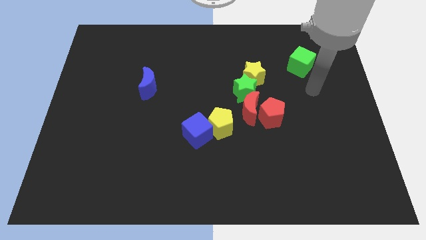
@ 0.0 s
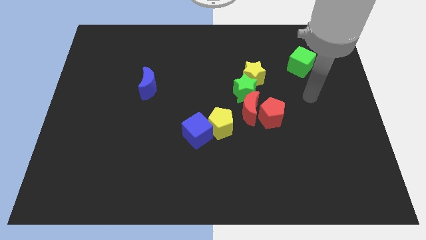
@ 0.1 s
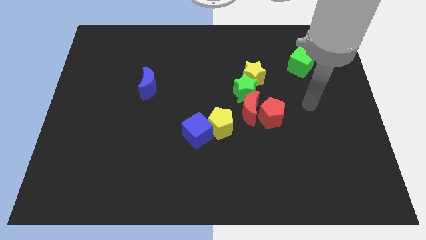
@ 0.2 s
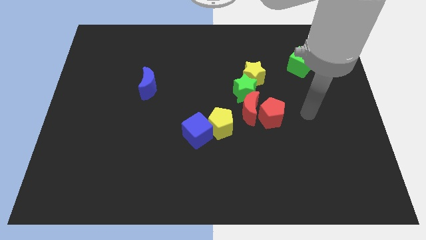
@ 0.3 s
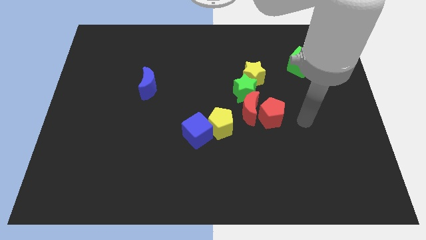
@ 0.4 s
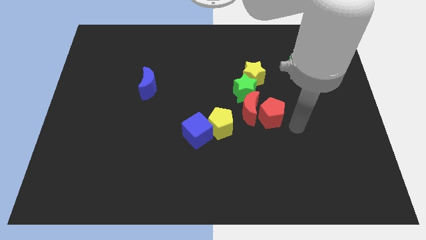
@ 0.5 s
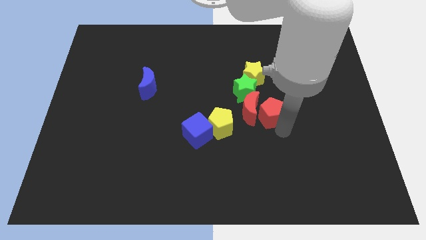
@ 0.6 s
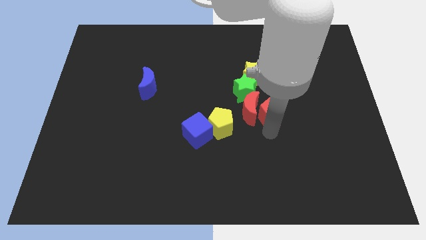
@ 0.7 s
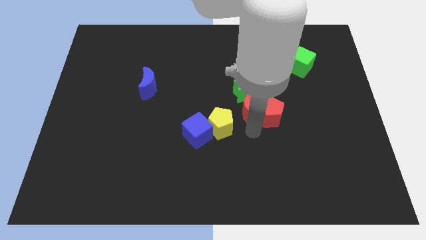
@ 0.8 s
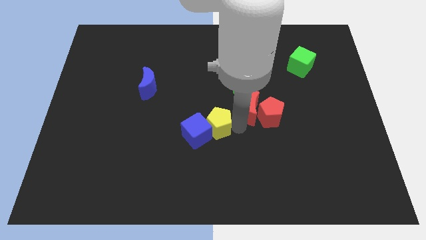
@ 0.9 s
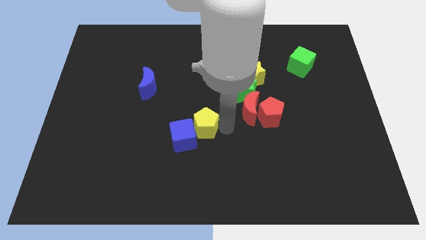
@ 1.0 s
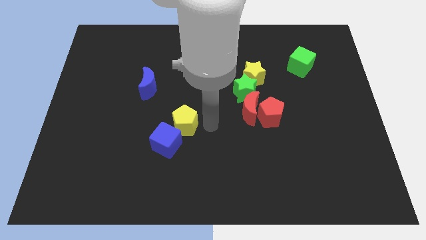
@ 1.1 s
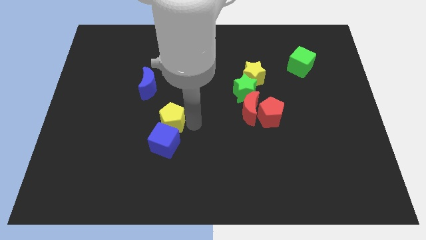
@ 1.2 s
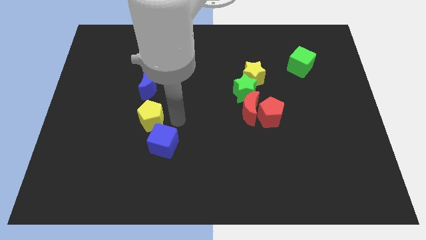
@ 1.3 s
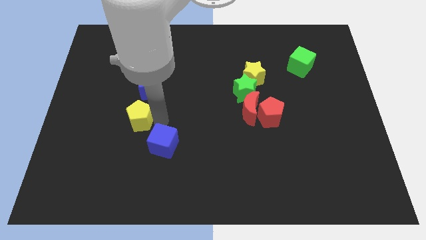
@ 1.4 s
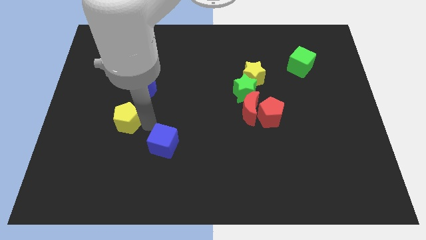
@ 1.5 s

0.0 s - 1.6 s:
separate the blue cube from the yellow pentagon

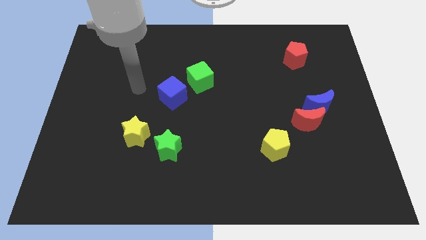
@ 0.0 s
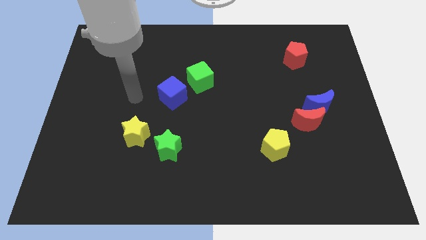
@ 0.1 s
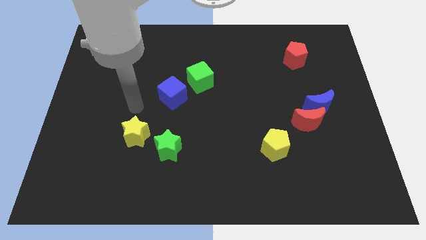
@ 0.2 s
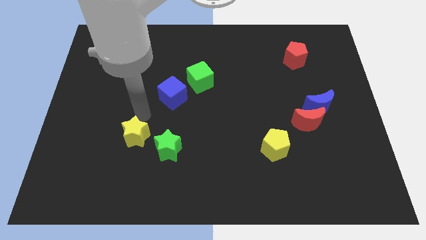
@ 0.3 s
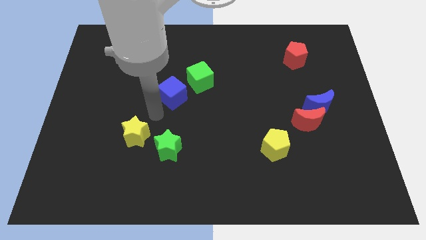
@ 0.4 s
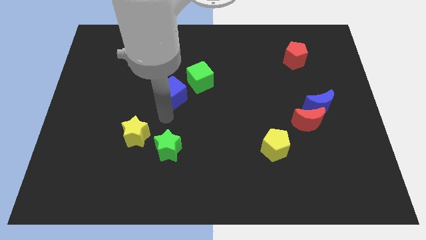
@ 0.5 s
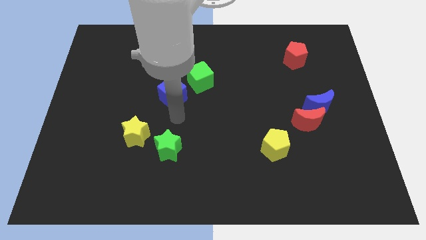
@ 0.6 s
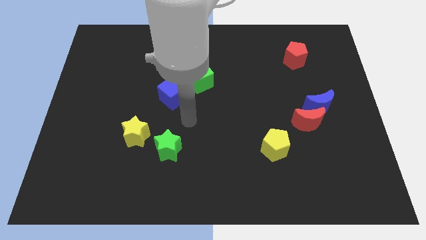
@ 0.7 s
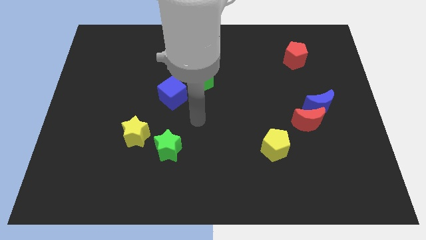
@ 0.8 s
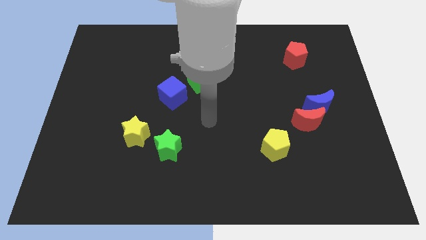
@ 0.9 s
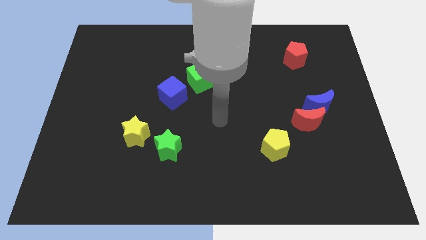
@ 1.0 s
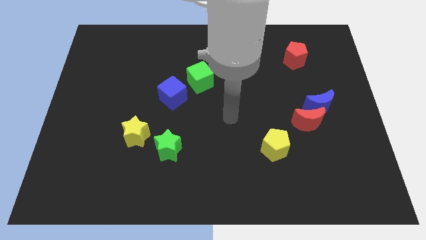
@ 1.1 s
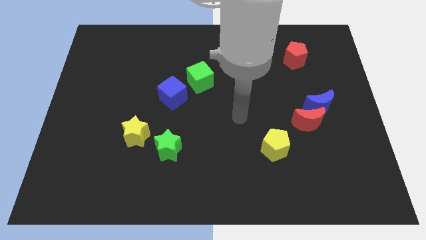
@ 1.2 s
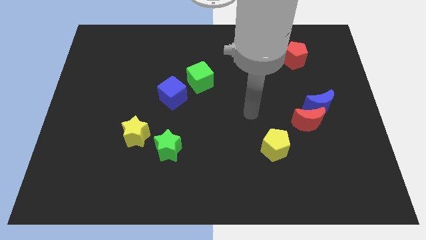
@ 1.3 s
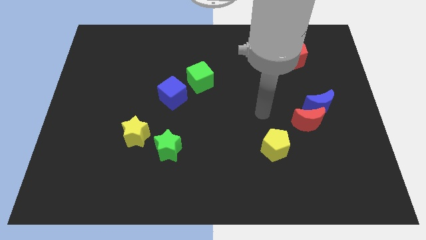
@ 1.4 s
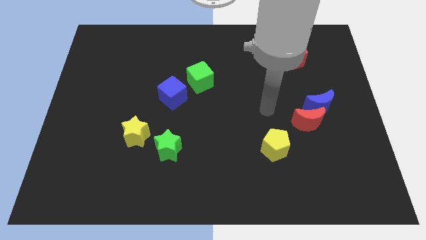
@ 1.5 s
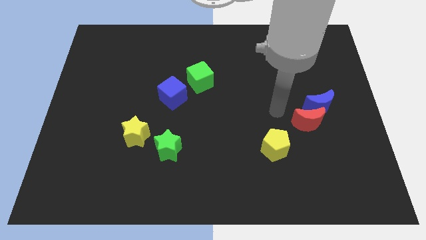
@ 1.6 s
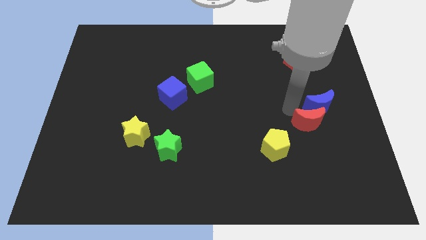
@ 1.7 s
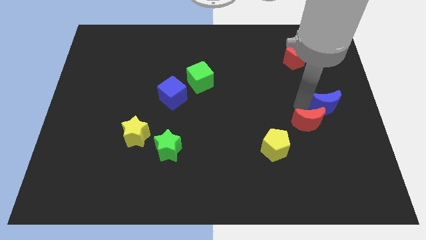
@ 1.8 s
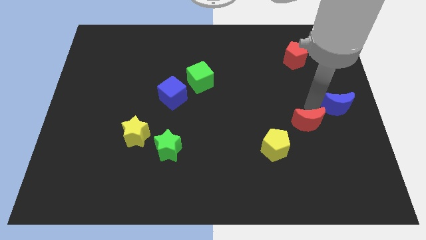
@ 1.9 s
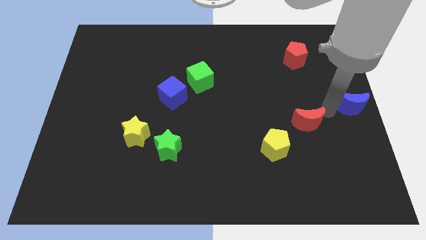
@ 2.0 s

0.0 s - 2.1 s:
separate the red moon from the blue moon

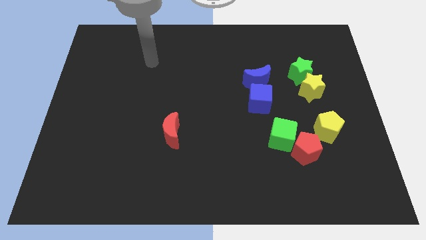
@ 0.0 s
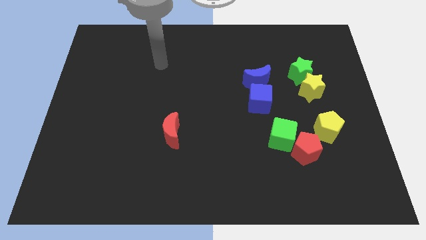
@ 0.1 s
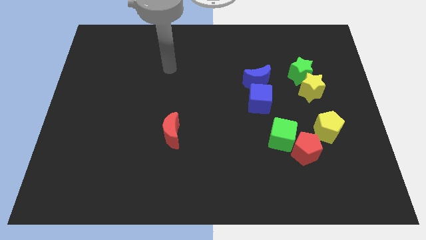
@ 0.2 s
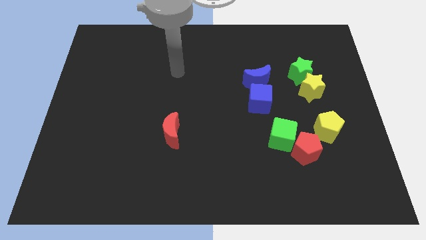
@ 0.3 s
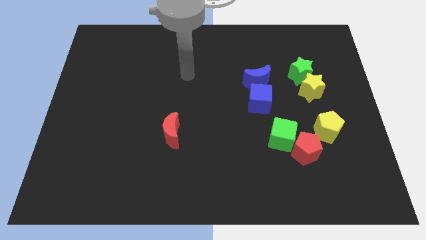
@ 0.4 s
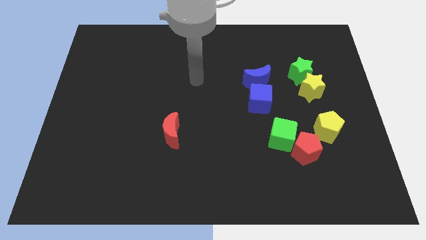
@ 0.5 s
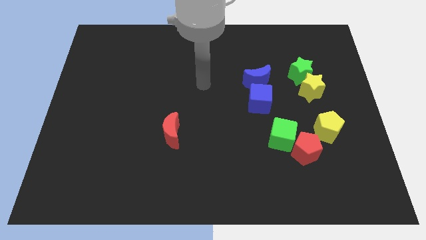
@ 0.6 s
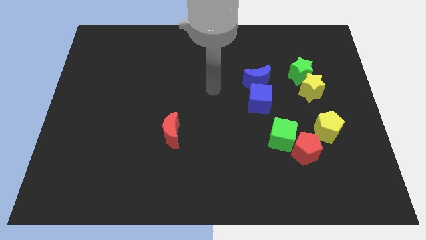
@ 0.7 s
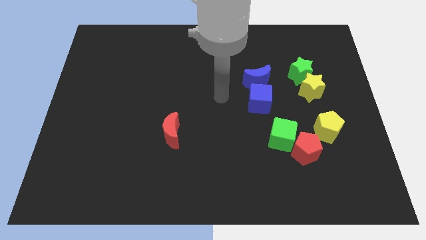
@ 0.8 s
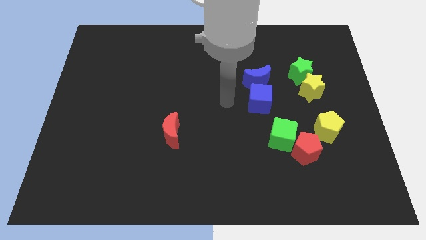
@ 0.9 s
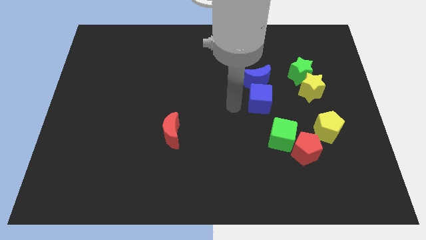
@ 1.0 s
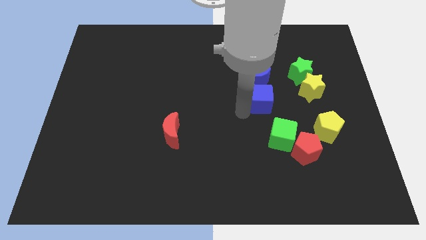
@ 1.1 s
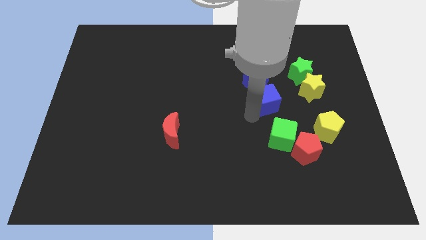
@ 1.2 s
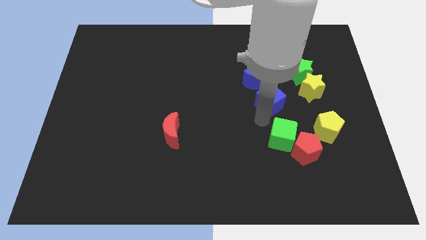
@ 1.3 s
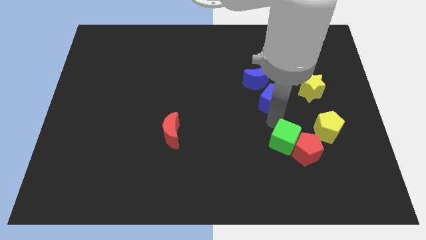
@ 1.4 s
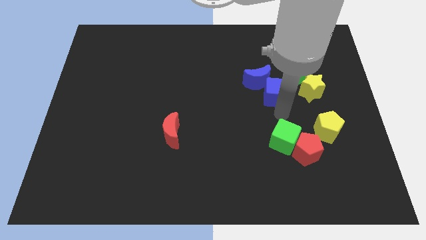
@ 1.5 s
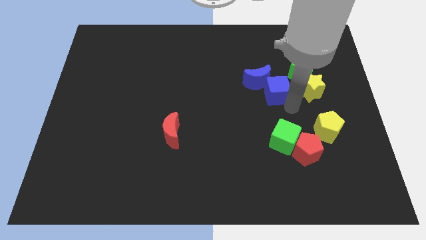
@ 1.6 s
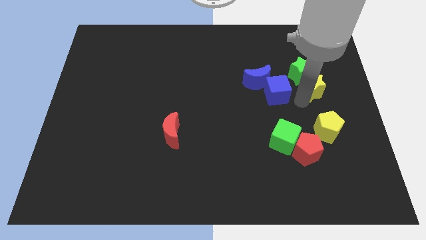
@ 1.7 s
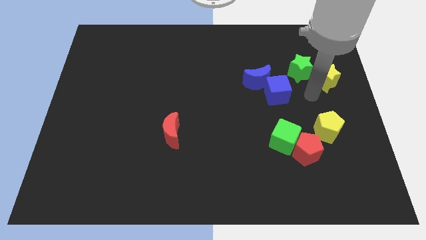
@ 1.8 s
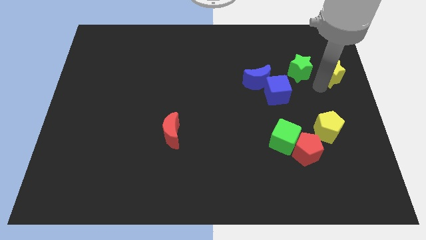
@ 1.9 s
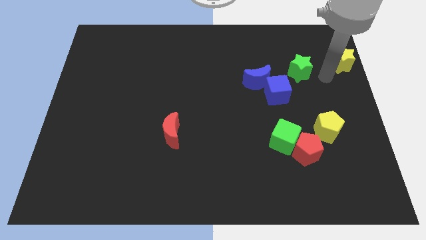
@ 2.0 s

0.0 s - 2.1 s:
move the green star away from the yellow star

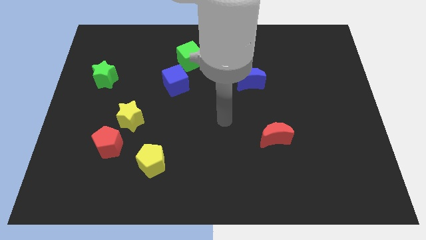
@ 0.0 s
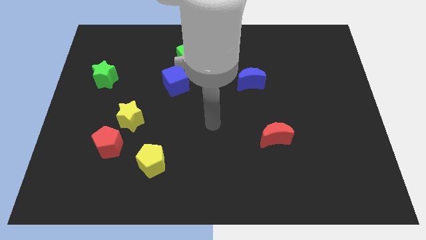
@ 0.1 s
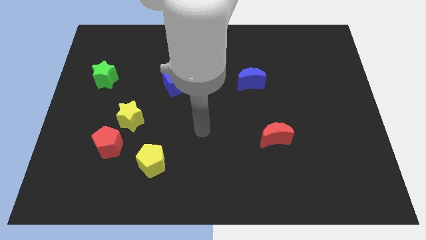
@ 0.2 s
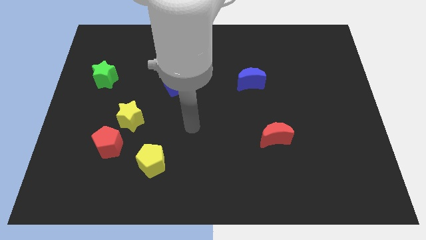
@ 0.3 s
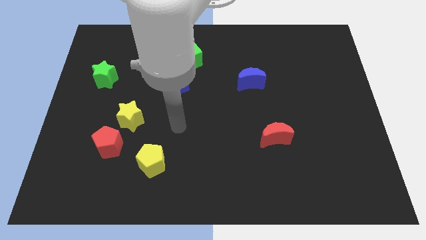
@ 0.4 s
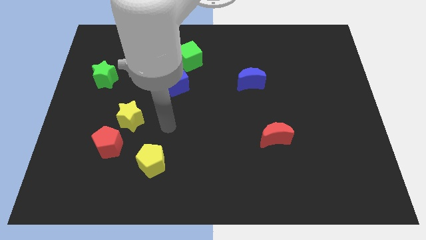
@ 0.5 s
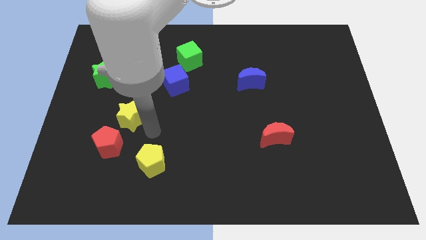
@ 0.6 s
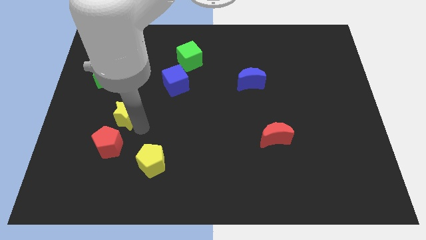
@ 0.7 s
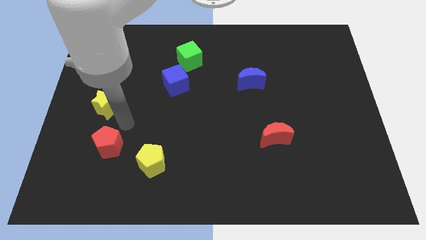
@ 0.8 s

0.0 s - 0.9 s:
pull the red pentagon apart from the yellow star

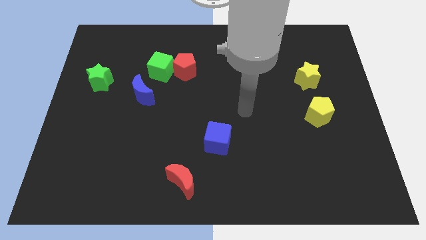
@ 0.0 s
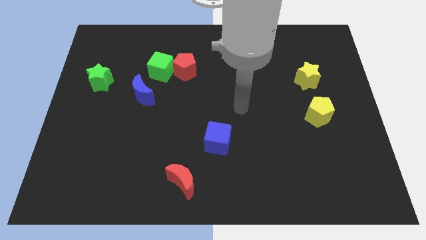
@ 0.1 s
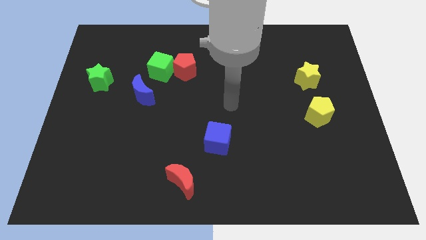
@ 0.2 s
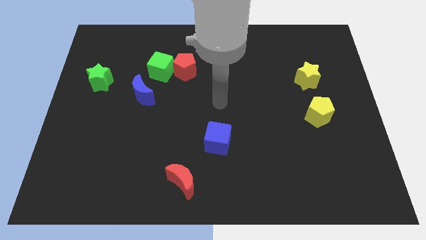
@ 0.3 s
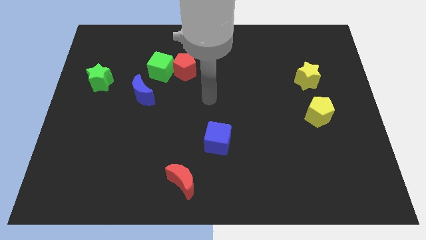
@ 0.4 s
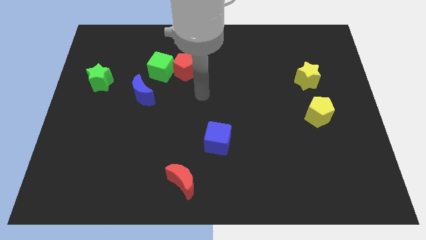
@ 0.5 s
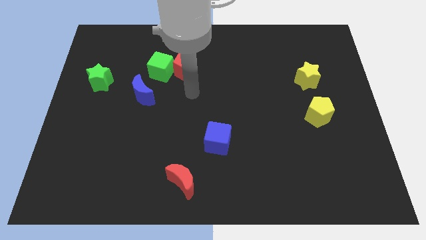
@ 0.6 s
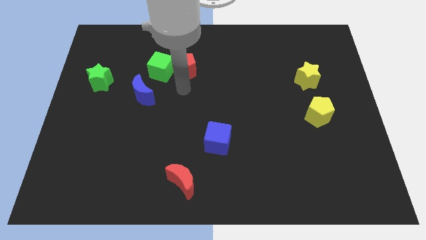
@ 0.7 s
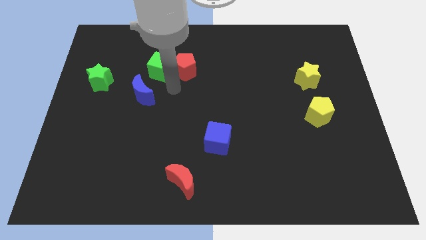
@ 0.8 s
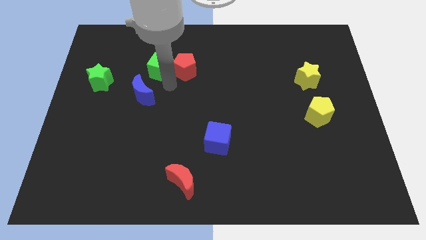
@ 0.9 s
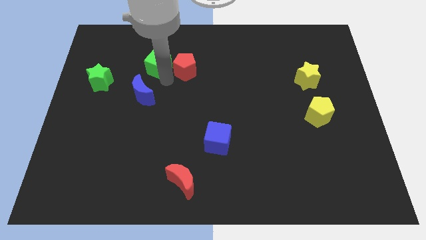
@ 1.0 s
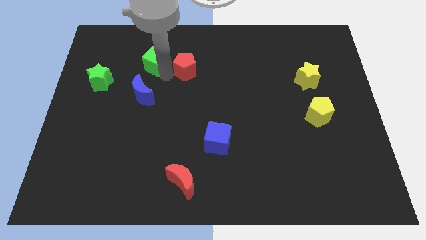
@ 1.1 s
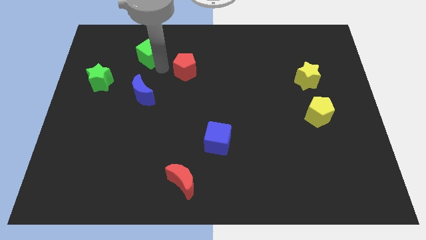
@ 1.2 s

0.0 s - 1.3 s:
pull the red pentagon apart from the green cube

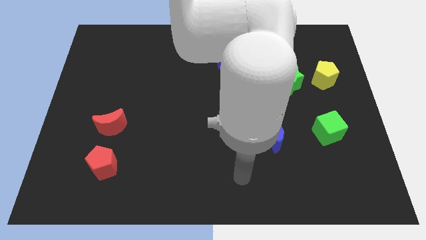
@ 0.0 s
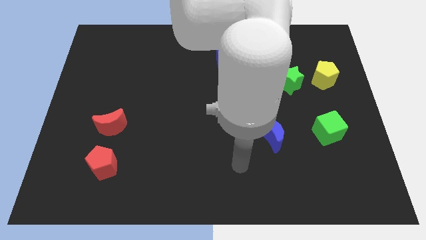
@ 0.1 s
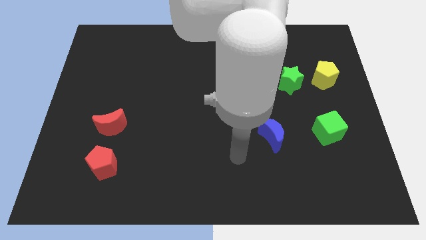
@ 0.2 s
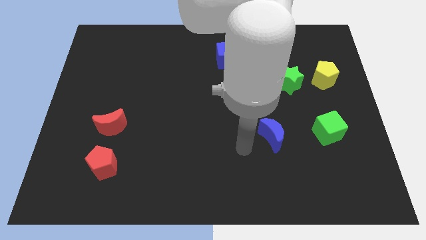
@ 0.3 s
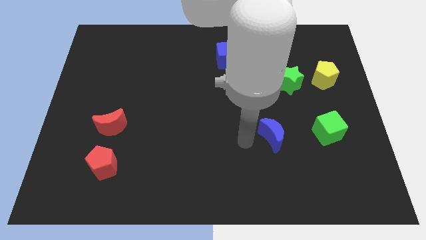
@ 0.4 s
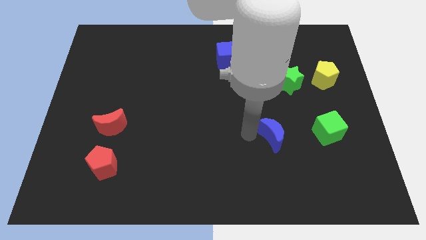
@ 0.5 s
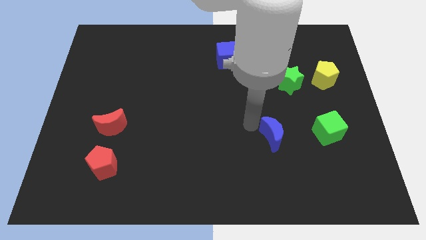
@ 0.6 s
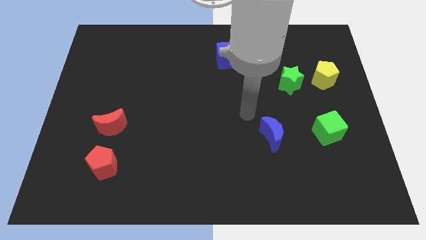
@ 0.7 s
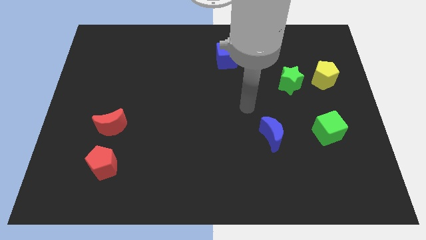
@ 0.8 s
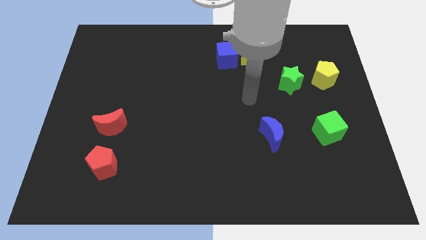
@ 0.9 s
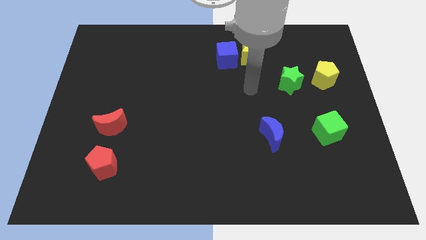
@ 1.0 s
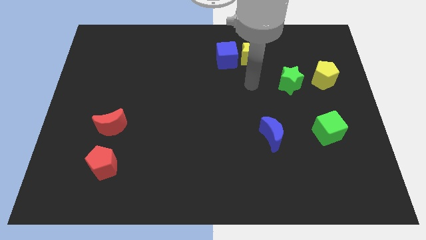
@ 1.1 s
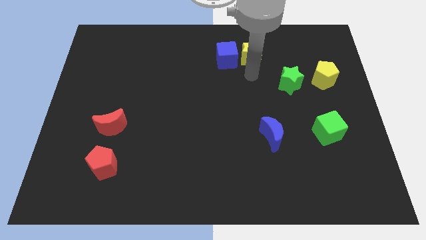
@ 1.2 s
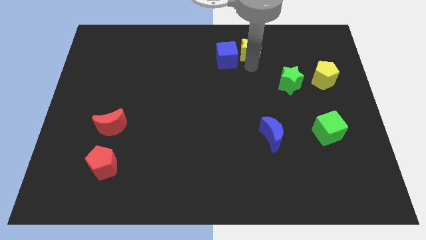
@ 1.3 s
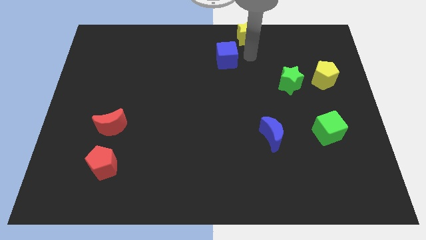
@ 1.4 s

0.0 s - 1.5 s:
pull the blue cube apart from the yellow star
